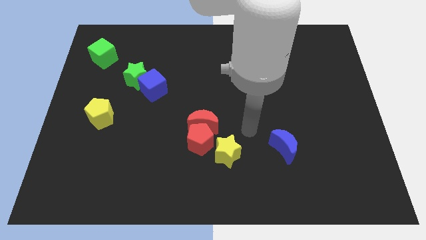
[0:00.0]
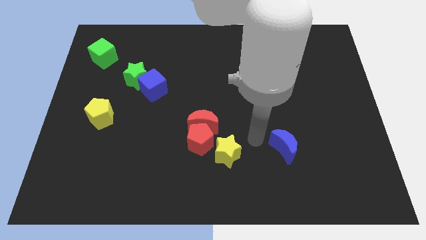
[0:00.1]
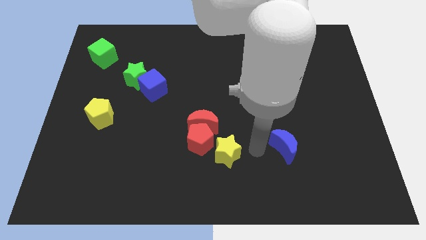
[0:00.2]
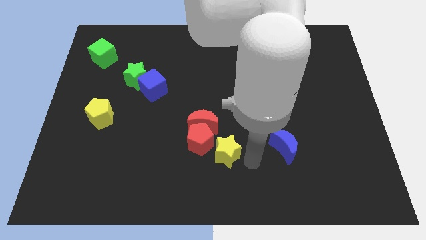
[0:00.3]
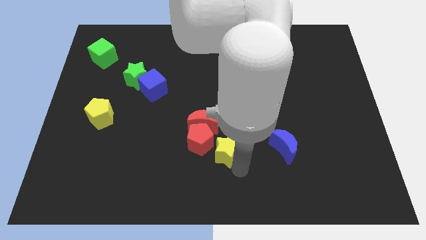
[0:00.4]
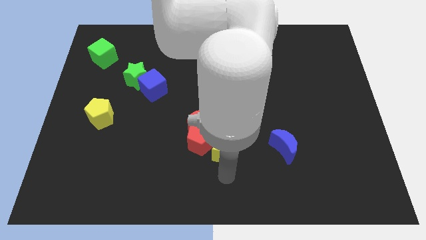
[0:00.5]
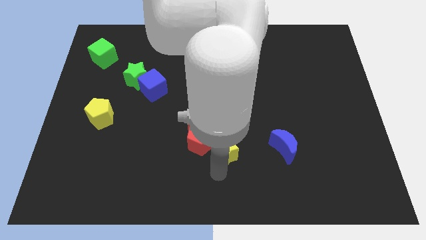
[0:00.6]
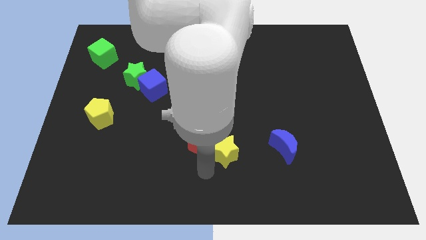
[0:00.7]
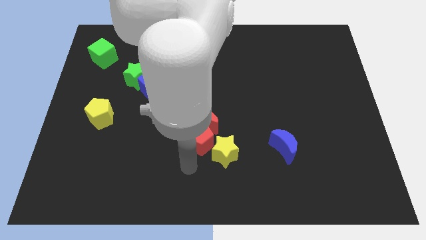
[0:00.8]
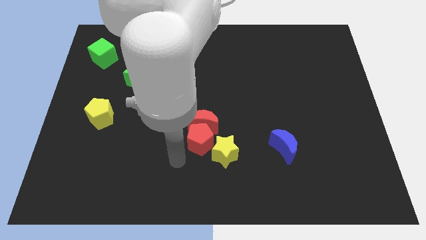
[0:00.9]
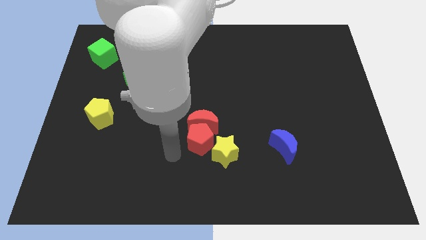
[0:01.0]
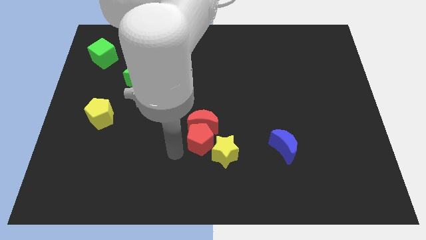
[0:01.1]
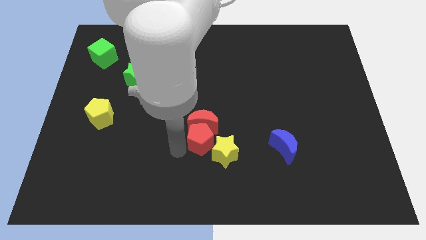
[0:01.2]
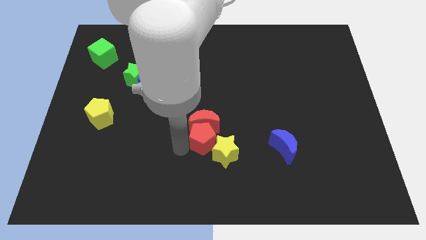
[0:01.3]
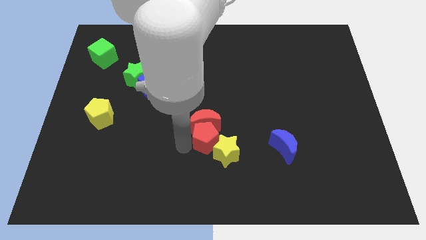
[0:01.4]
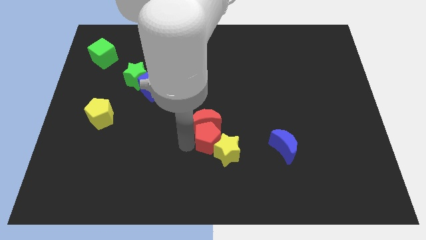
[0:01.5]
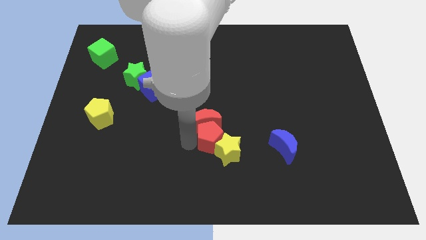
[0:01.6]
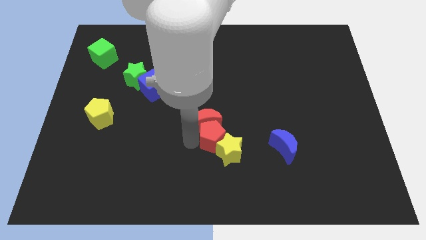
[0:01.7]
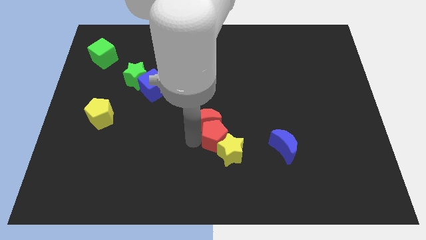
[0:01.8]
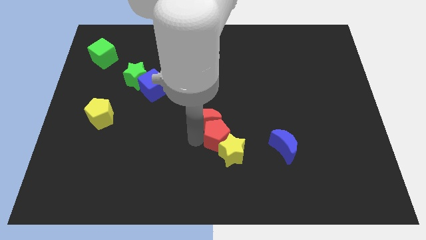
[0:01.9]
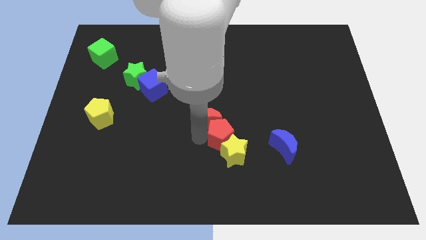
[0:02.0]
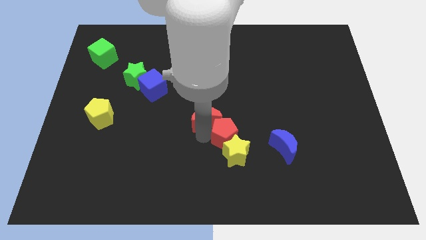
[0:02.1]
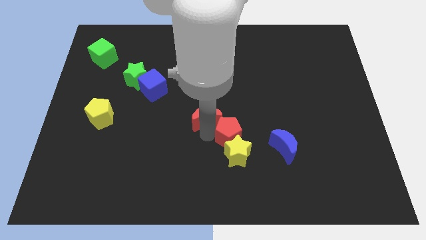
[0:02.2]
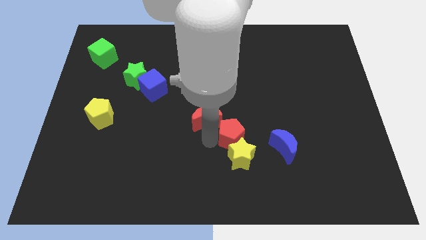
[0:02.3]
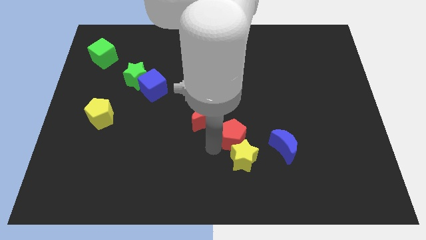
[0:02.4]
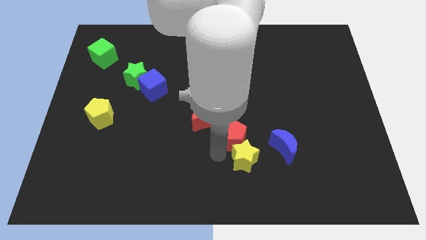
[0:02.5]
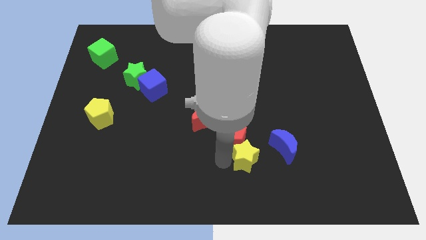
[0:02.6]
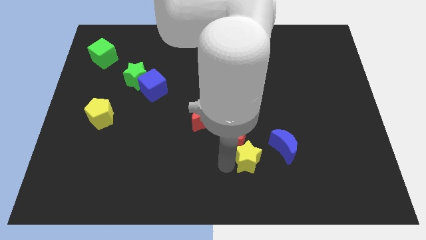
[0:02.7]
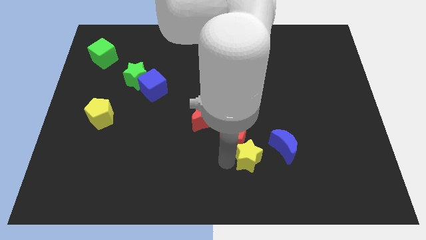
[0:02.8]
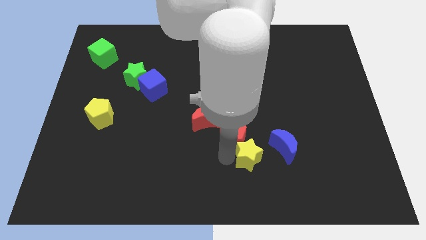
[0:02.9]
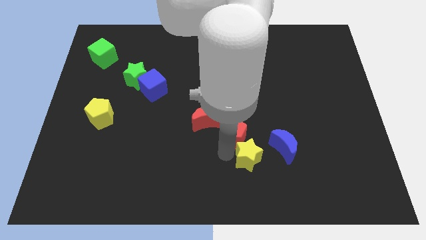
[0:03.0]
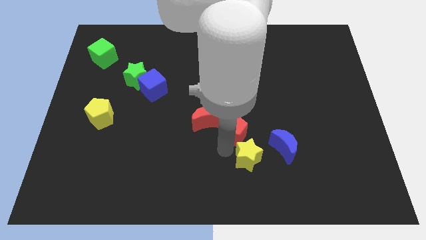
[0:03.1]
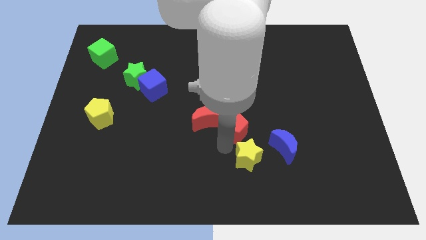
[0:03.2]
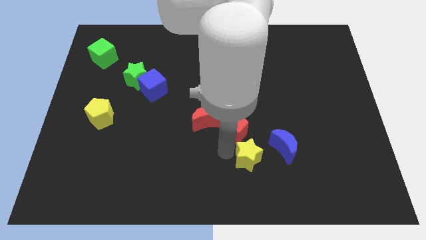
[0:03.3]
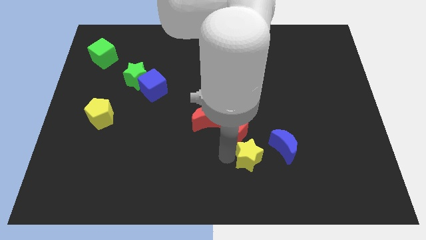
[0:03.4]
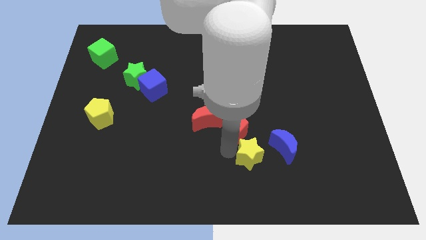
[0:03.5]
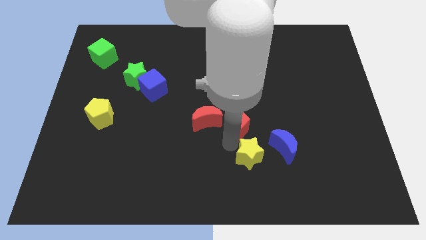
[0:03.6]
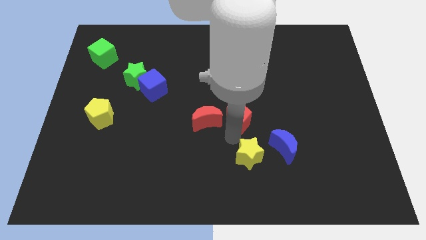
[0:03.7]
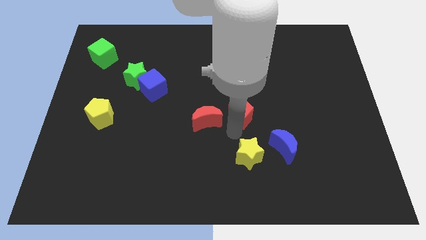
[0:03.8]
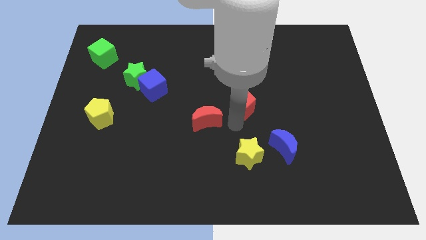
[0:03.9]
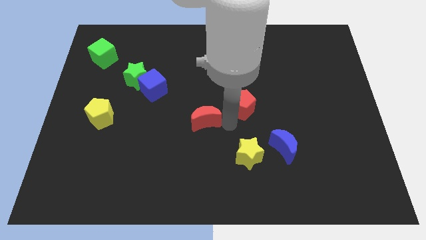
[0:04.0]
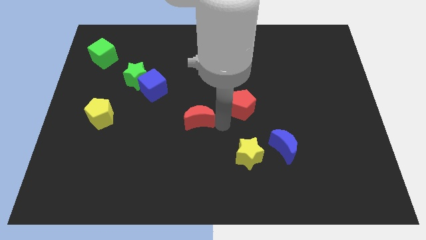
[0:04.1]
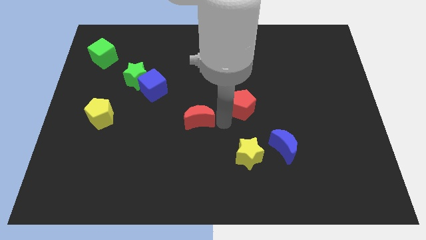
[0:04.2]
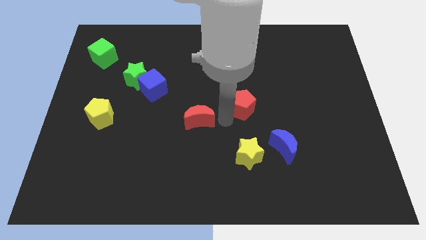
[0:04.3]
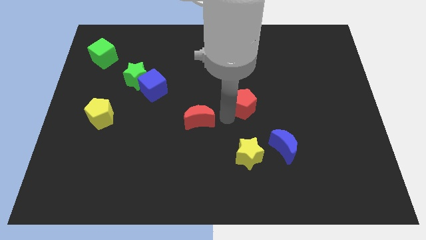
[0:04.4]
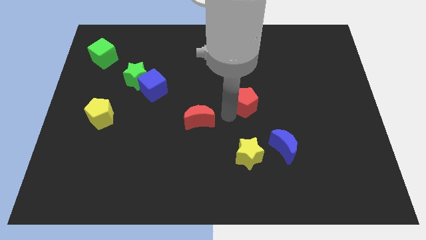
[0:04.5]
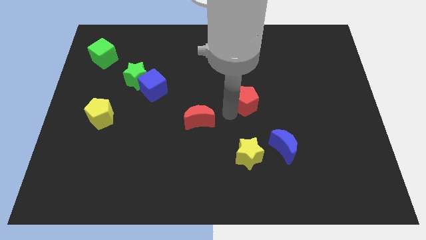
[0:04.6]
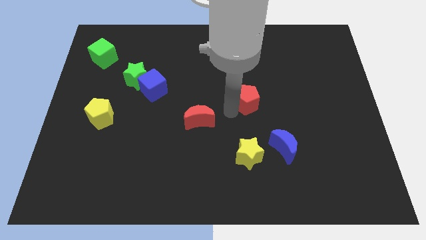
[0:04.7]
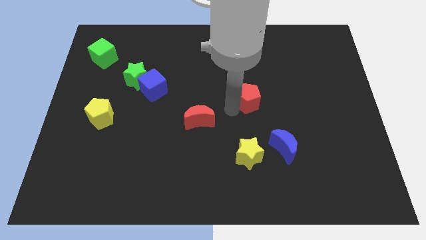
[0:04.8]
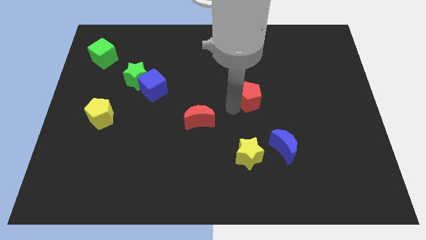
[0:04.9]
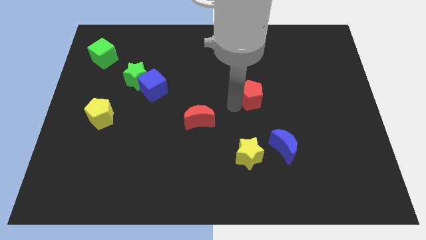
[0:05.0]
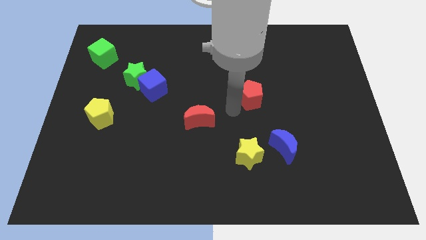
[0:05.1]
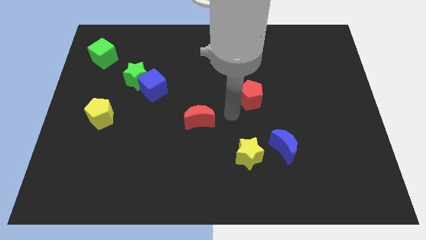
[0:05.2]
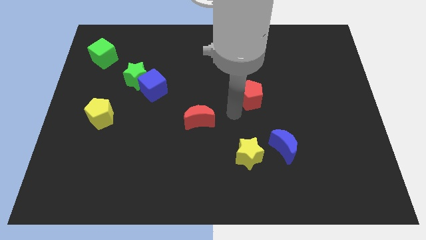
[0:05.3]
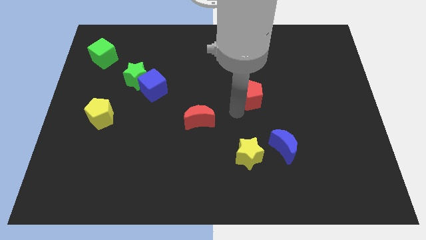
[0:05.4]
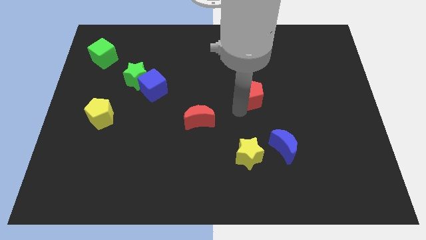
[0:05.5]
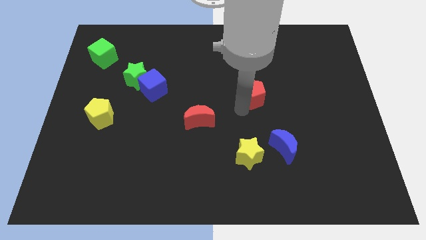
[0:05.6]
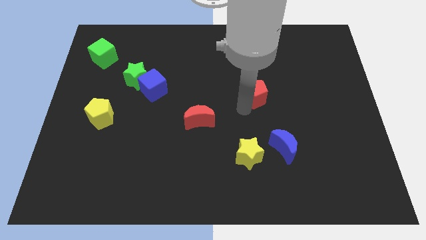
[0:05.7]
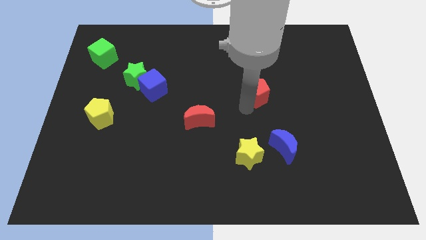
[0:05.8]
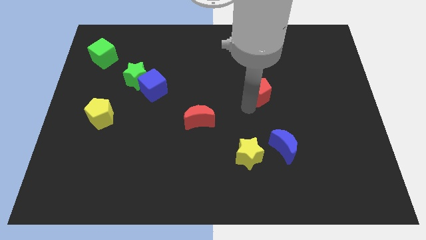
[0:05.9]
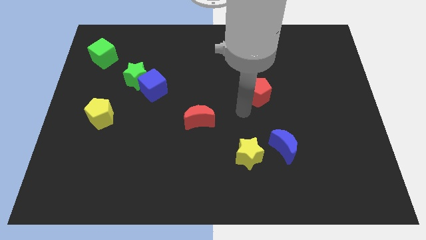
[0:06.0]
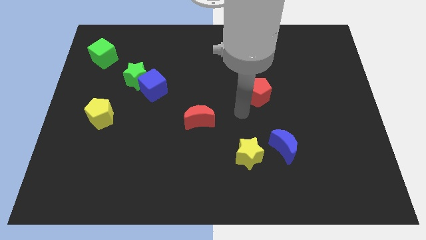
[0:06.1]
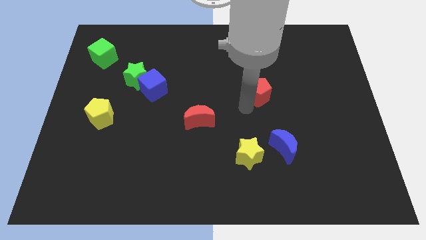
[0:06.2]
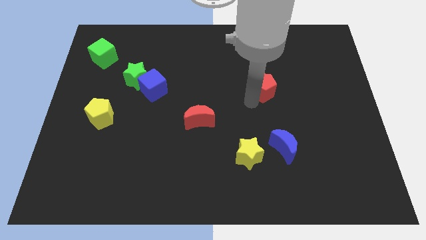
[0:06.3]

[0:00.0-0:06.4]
push the red pentagon diagonally up and to the right

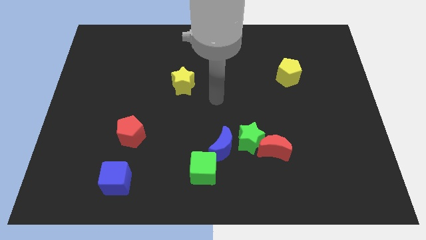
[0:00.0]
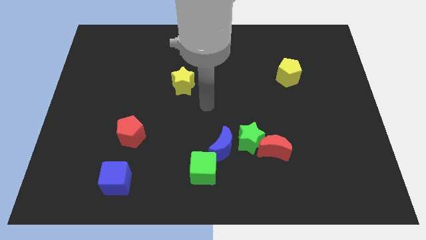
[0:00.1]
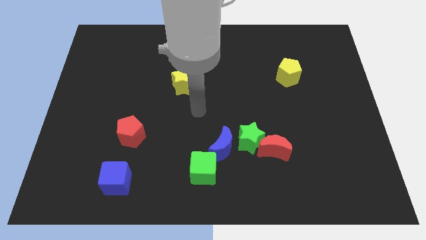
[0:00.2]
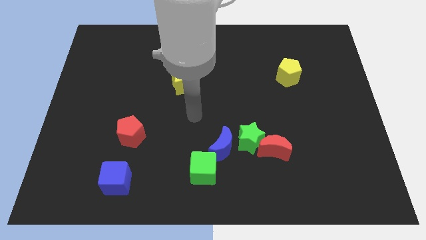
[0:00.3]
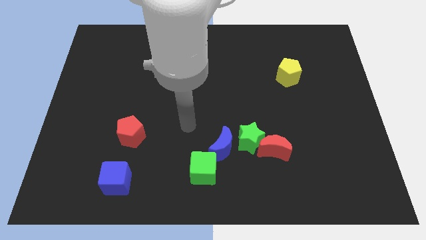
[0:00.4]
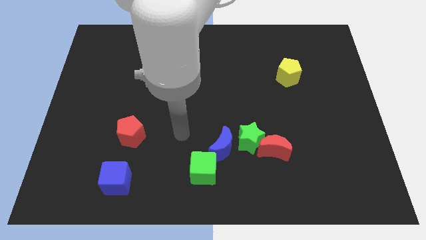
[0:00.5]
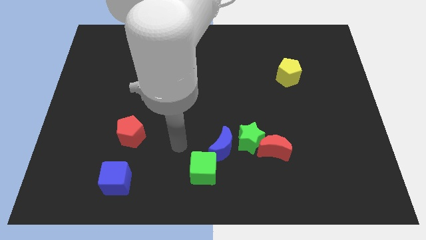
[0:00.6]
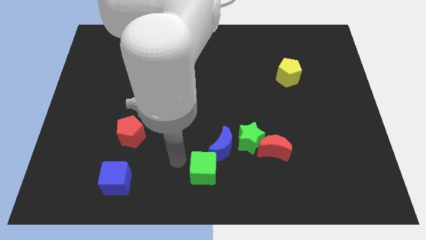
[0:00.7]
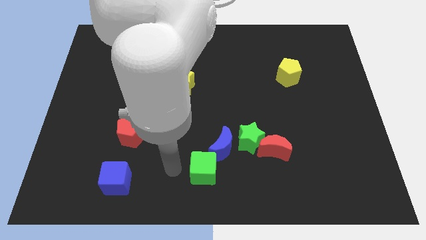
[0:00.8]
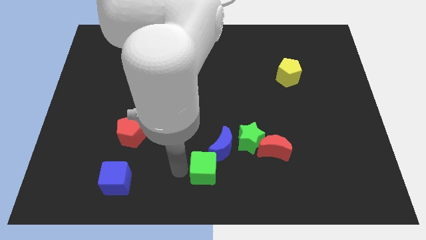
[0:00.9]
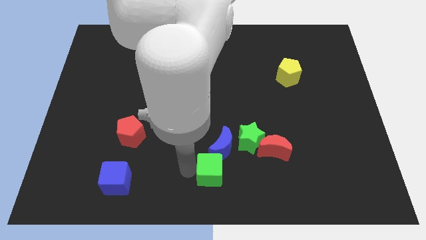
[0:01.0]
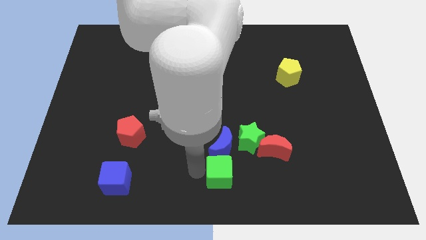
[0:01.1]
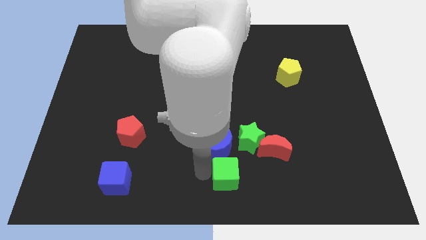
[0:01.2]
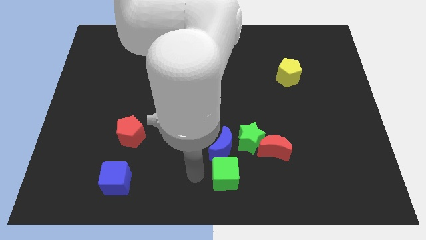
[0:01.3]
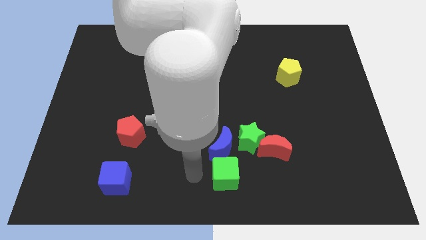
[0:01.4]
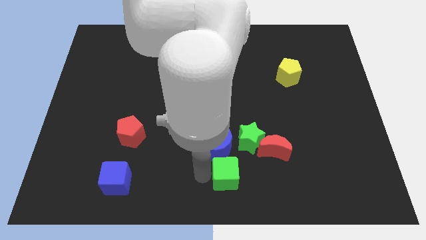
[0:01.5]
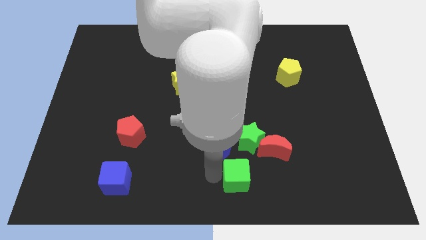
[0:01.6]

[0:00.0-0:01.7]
move the green cube a bit to the right
